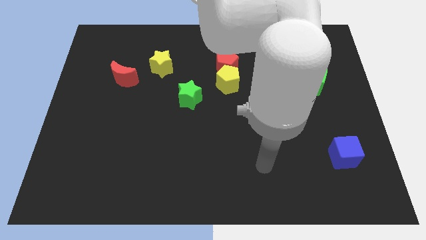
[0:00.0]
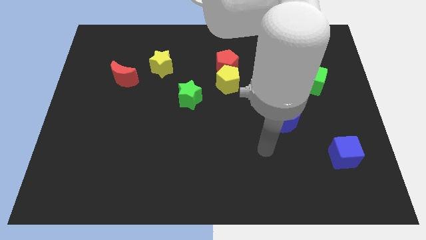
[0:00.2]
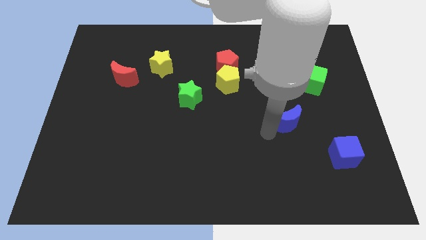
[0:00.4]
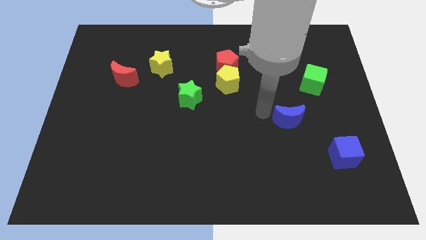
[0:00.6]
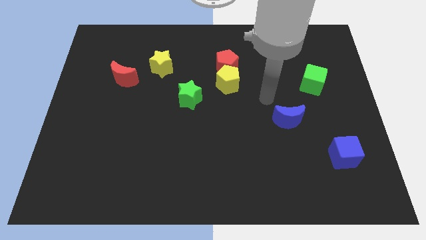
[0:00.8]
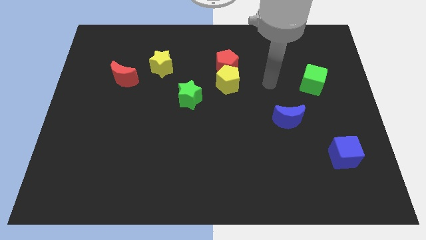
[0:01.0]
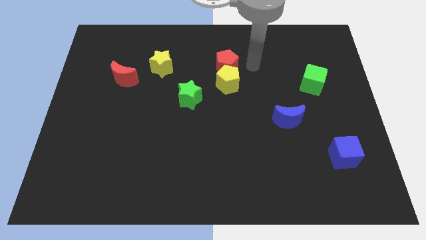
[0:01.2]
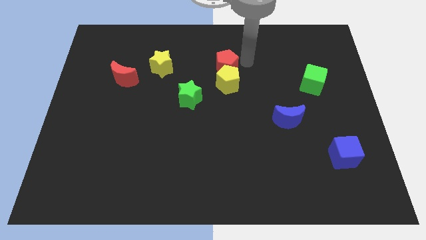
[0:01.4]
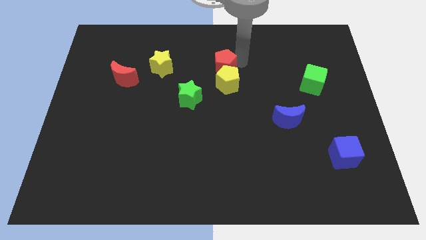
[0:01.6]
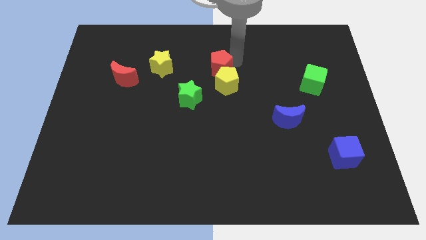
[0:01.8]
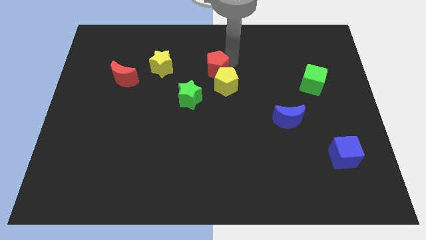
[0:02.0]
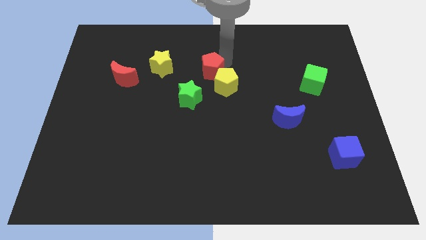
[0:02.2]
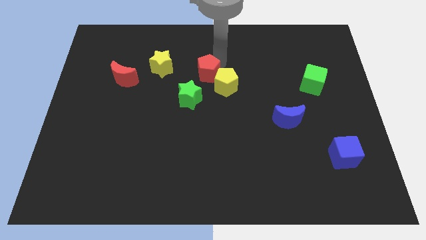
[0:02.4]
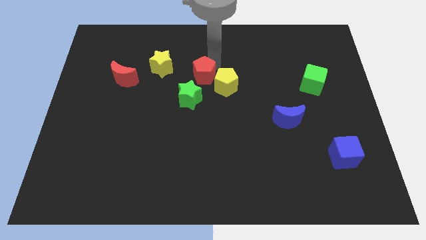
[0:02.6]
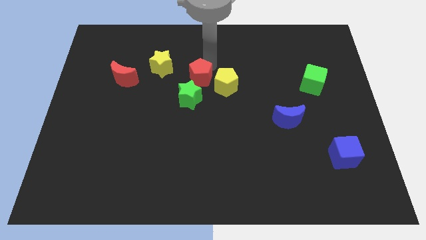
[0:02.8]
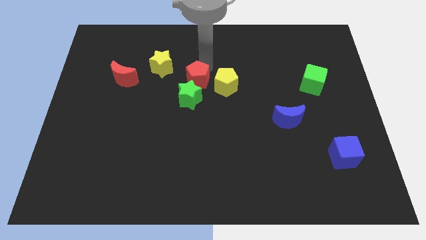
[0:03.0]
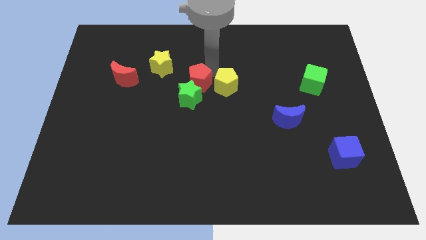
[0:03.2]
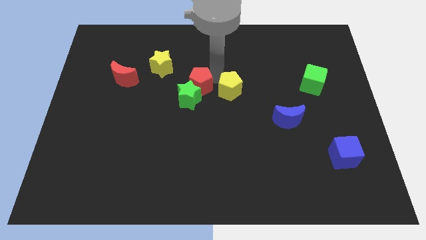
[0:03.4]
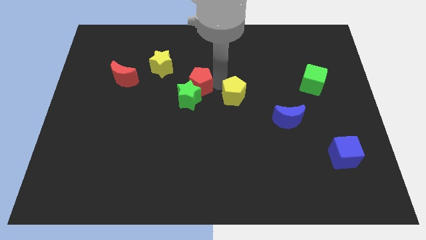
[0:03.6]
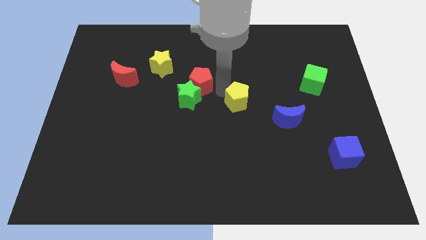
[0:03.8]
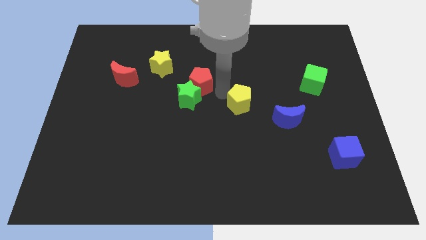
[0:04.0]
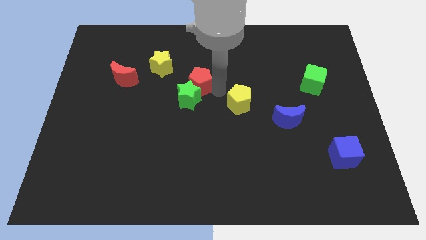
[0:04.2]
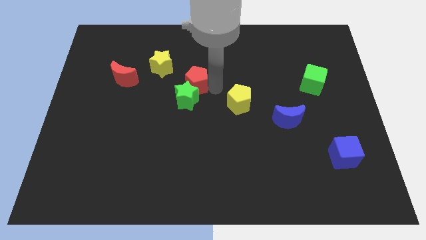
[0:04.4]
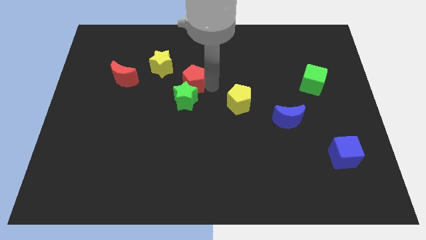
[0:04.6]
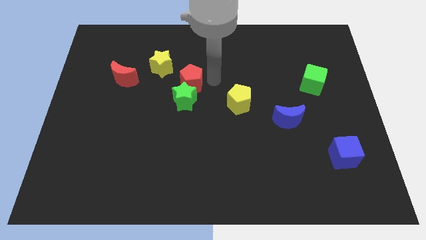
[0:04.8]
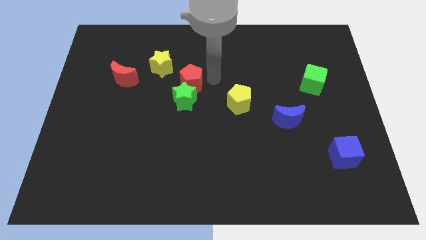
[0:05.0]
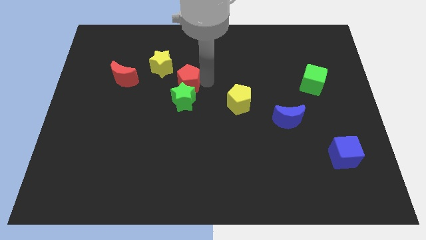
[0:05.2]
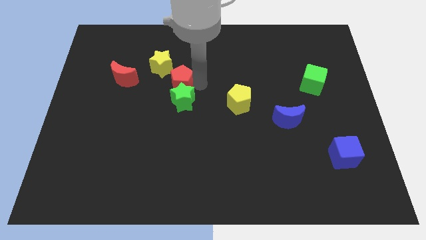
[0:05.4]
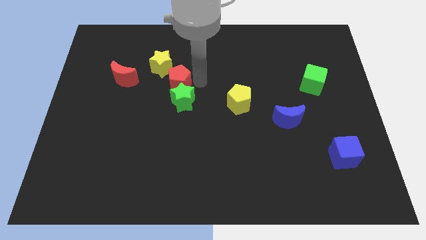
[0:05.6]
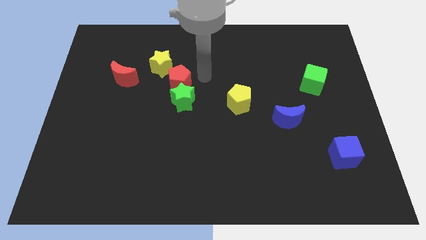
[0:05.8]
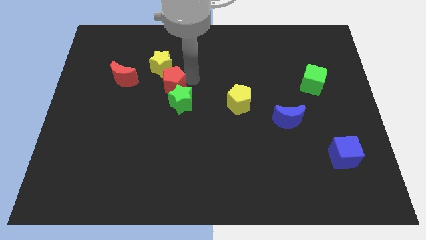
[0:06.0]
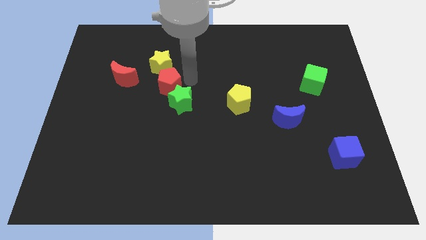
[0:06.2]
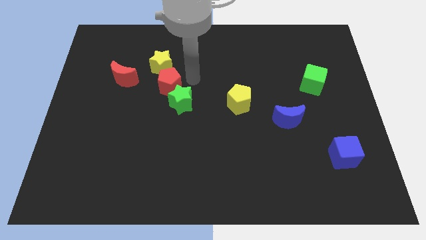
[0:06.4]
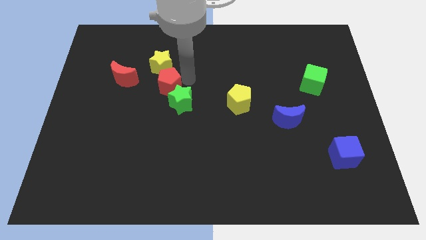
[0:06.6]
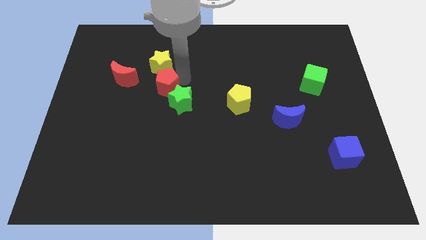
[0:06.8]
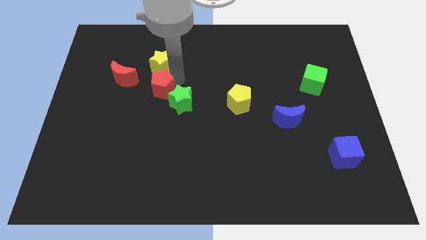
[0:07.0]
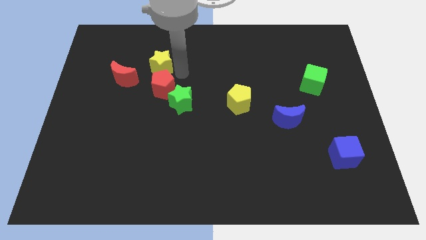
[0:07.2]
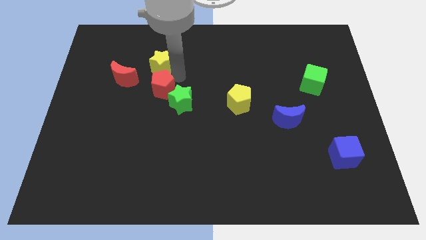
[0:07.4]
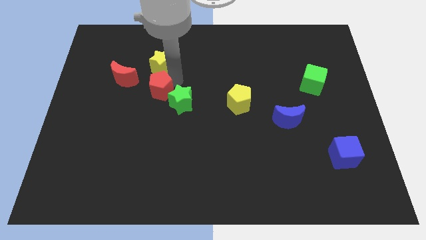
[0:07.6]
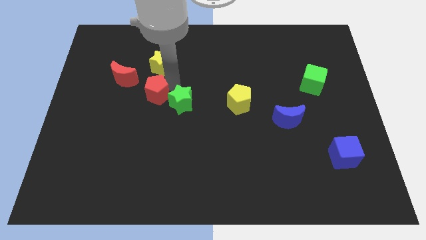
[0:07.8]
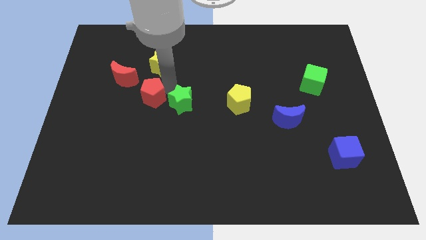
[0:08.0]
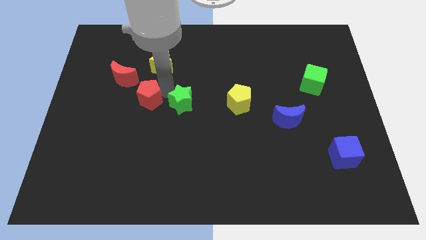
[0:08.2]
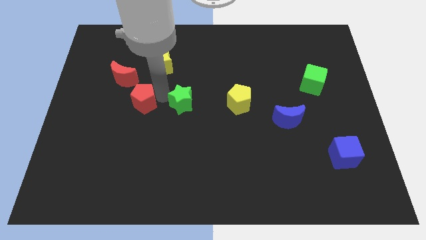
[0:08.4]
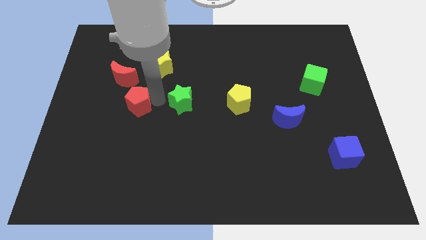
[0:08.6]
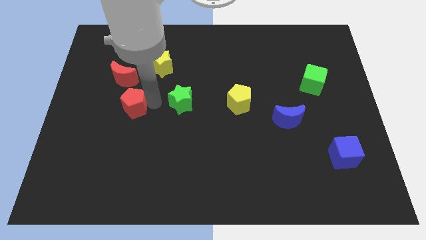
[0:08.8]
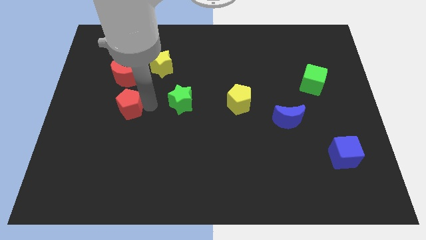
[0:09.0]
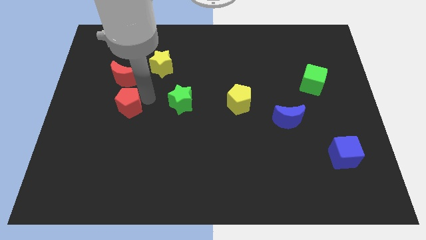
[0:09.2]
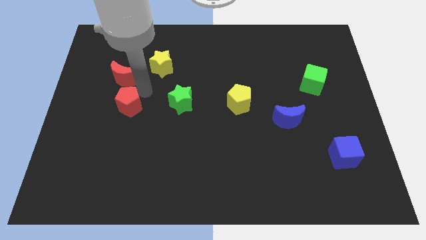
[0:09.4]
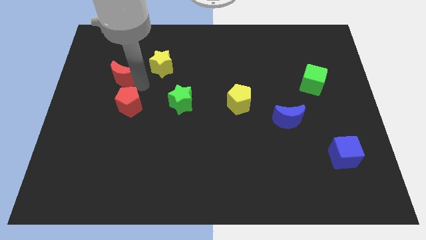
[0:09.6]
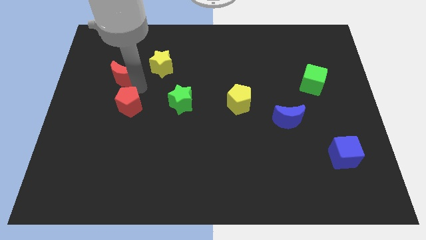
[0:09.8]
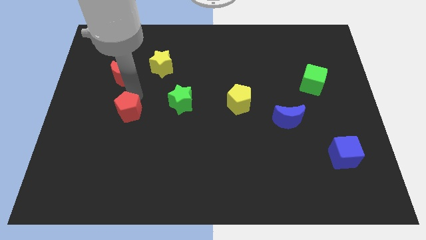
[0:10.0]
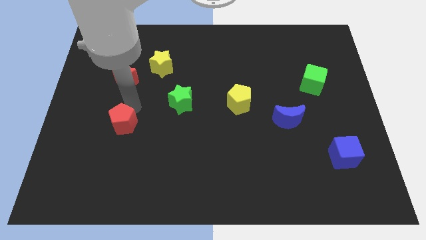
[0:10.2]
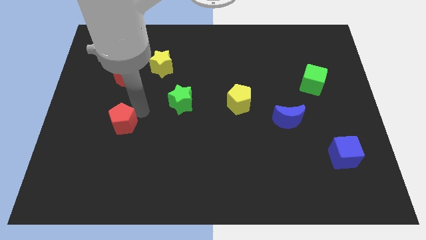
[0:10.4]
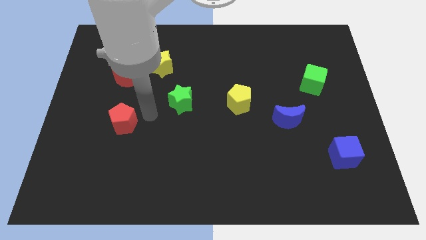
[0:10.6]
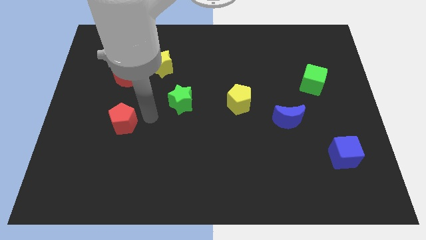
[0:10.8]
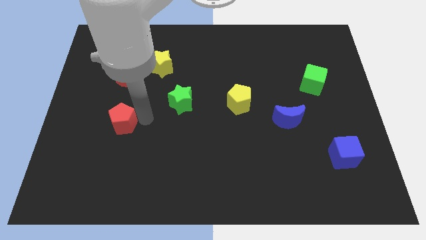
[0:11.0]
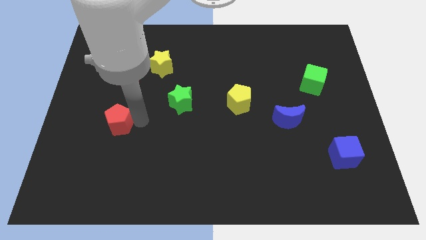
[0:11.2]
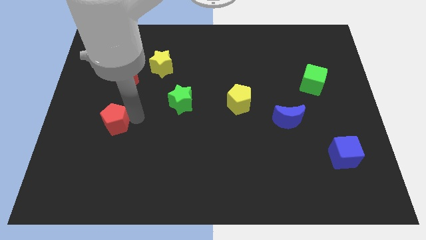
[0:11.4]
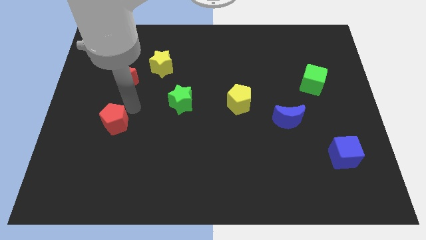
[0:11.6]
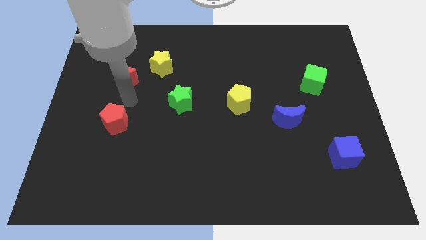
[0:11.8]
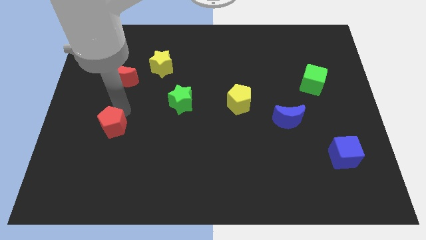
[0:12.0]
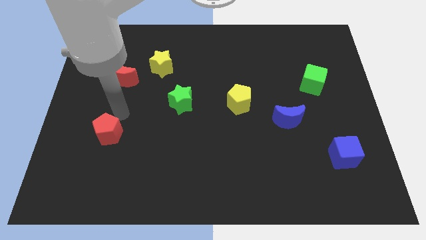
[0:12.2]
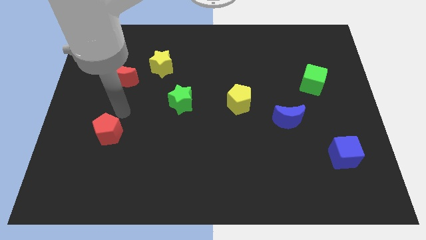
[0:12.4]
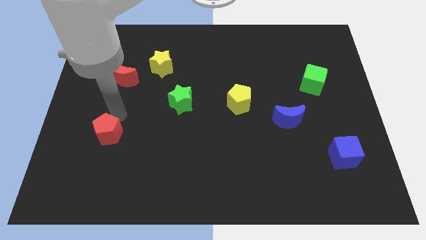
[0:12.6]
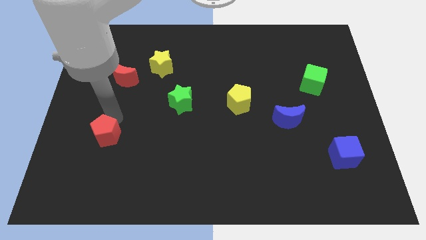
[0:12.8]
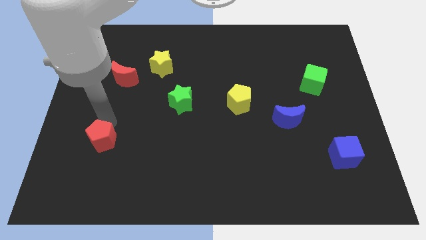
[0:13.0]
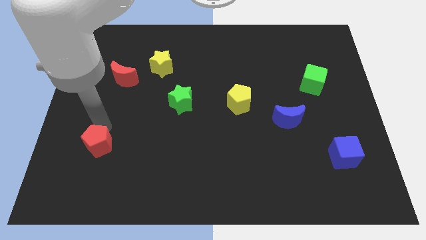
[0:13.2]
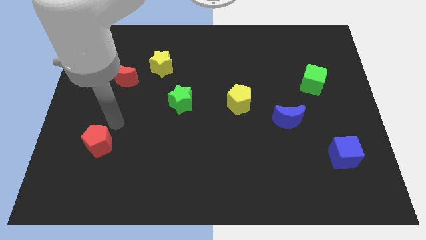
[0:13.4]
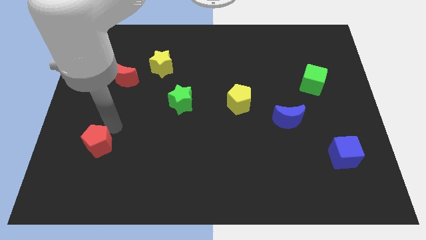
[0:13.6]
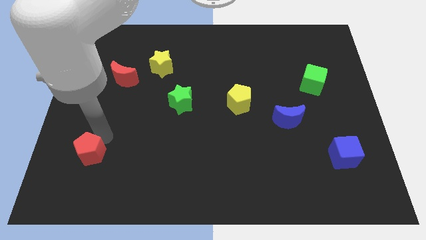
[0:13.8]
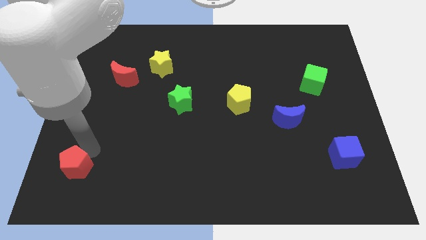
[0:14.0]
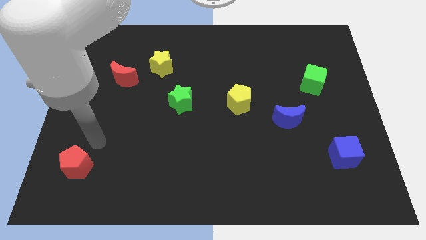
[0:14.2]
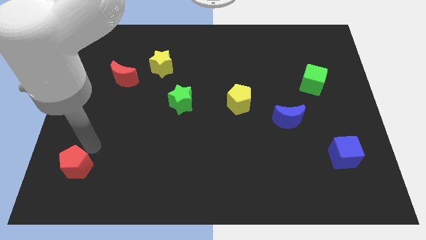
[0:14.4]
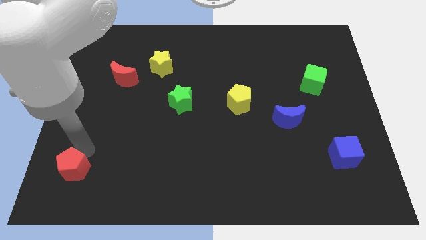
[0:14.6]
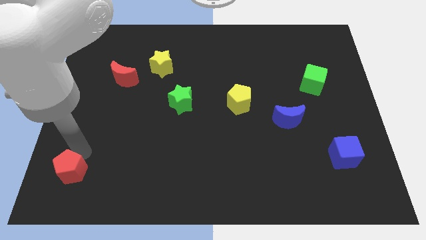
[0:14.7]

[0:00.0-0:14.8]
push the red pentagon to the lower left corner
